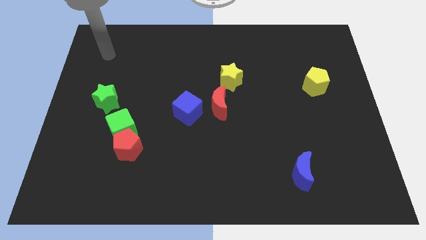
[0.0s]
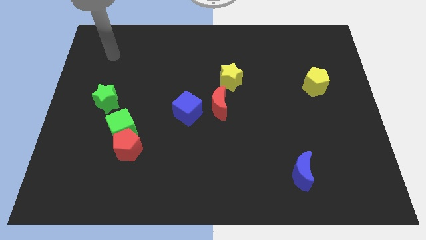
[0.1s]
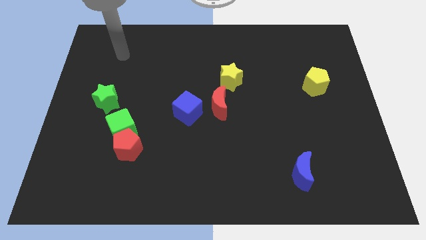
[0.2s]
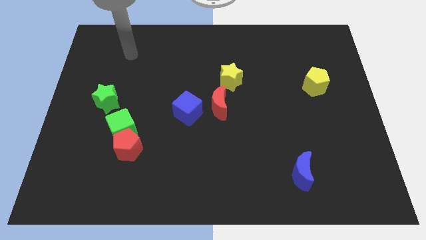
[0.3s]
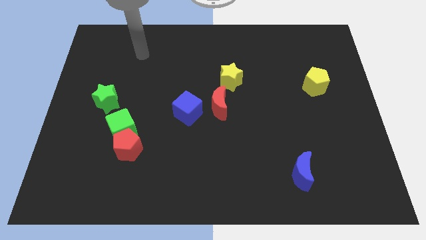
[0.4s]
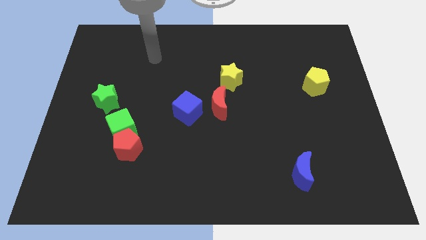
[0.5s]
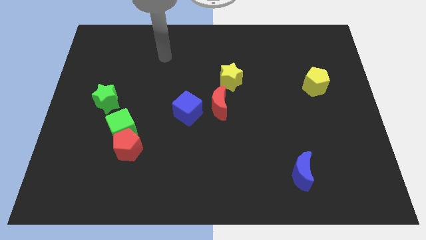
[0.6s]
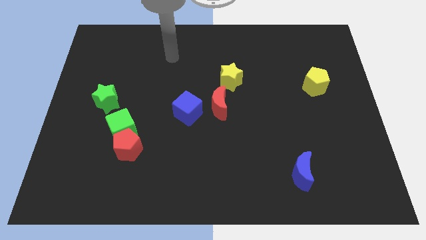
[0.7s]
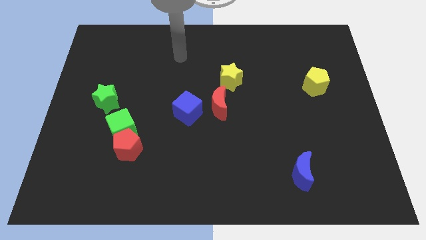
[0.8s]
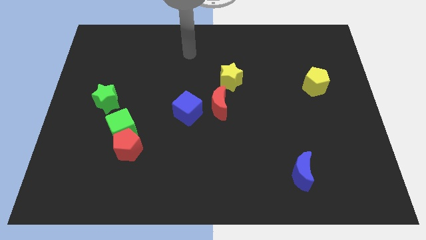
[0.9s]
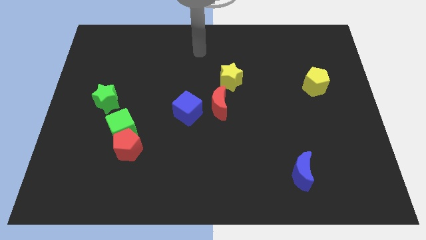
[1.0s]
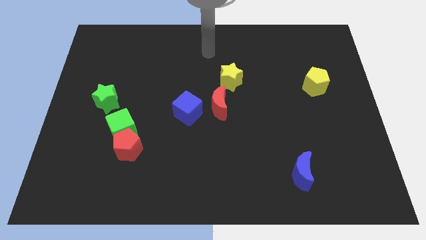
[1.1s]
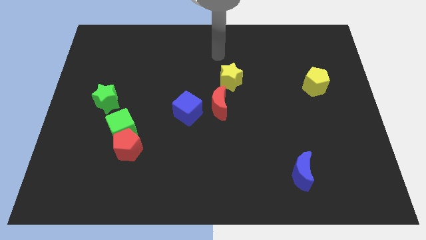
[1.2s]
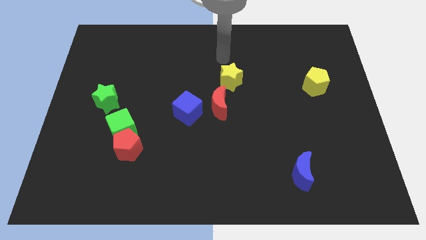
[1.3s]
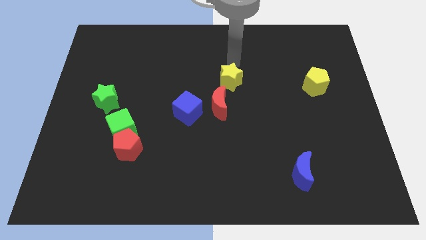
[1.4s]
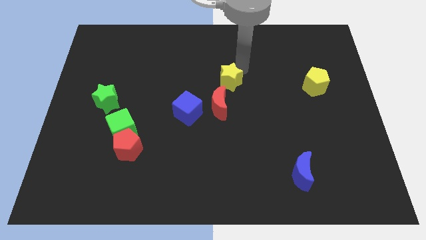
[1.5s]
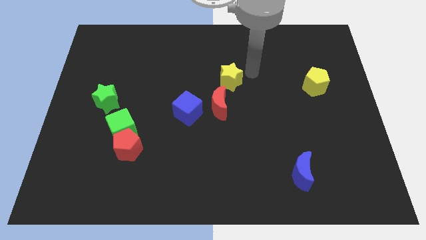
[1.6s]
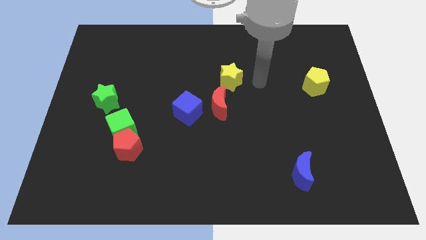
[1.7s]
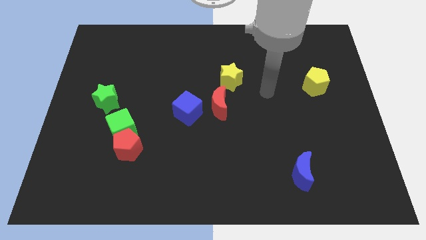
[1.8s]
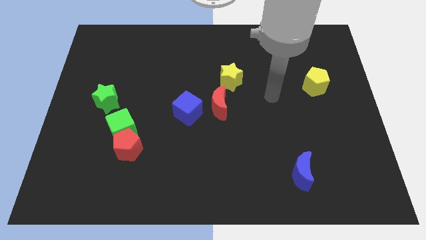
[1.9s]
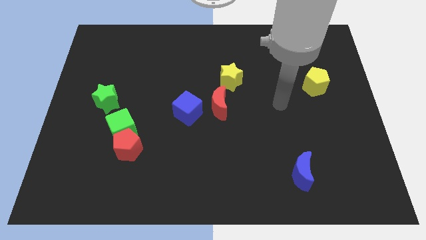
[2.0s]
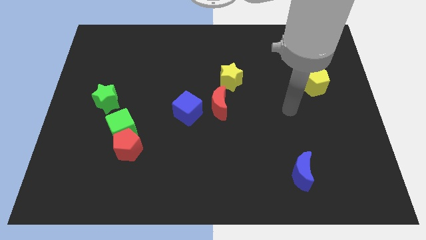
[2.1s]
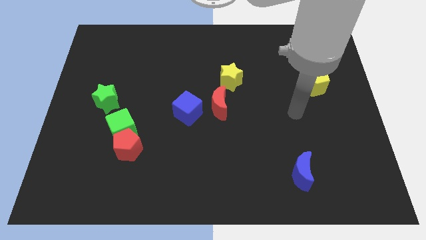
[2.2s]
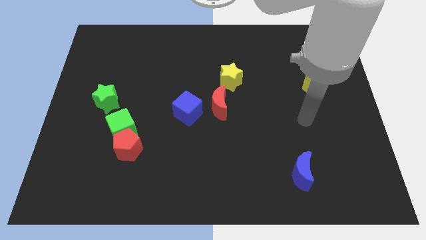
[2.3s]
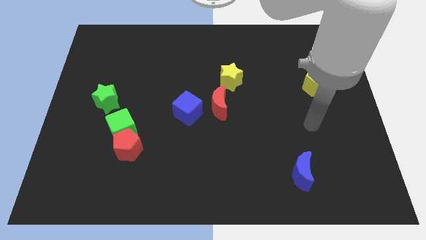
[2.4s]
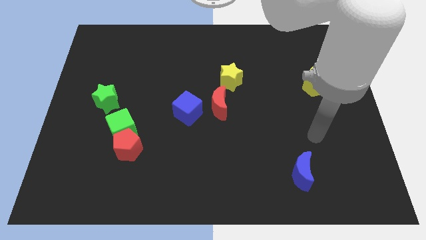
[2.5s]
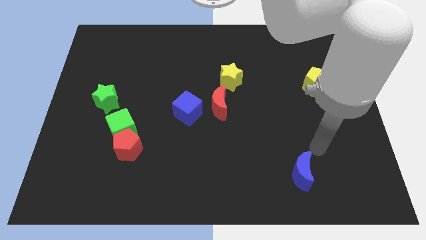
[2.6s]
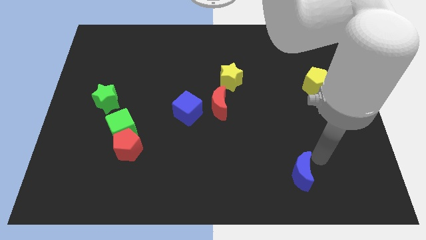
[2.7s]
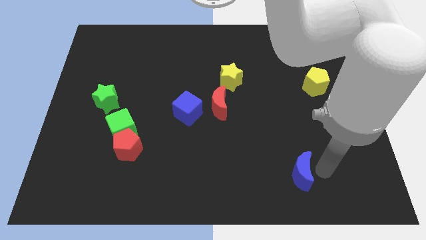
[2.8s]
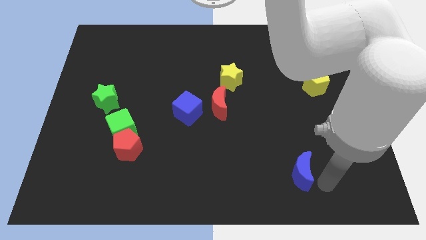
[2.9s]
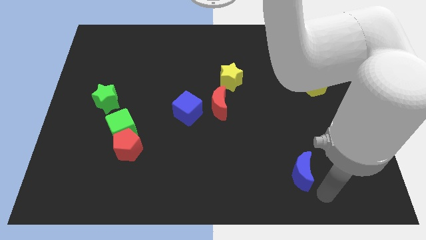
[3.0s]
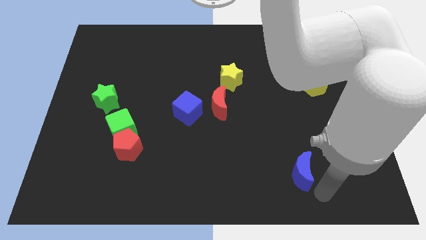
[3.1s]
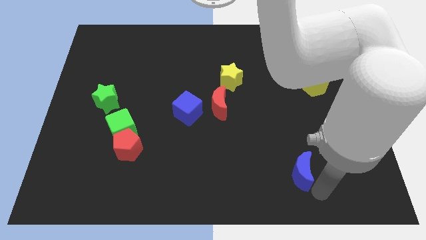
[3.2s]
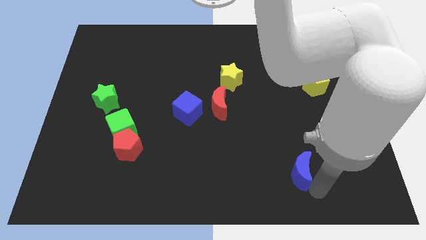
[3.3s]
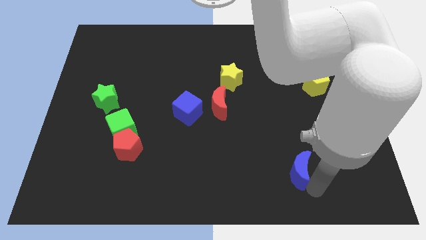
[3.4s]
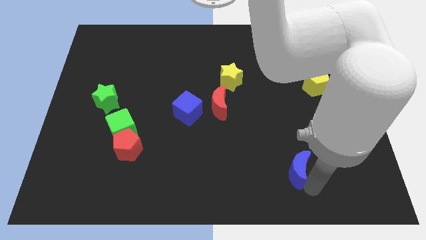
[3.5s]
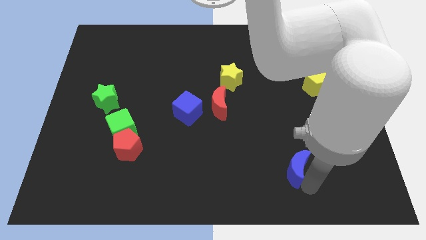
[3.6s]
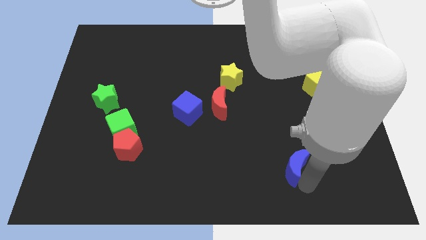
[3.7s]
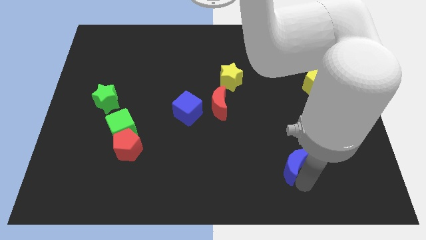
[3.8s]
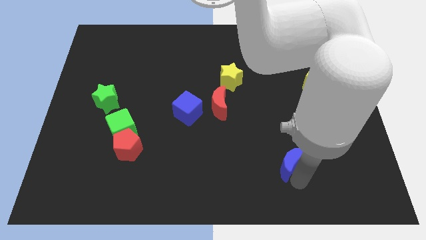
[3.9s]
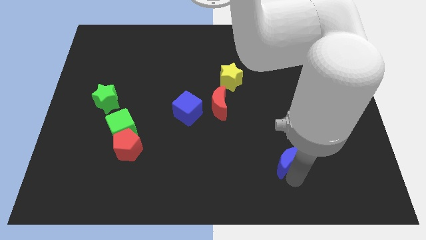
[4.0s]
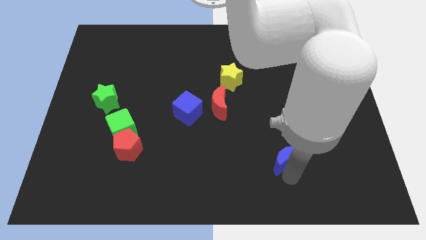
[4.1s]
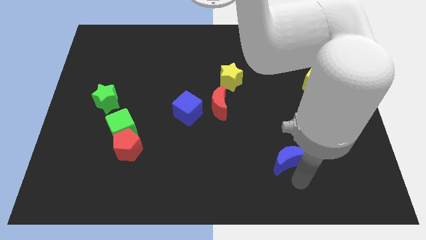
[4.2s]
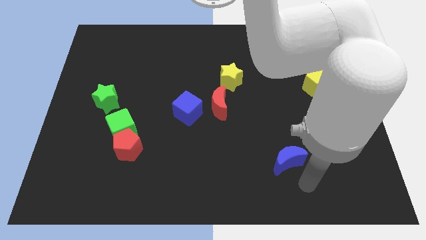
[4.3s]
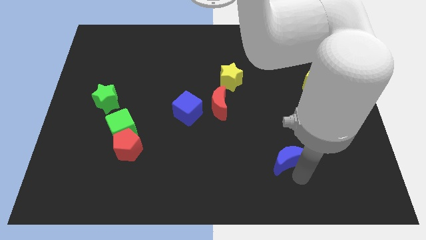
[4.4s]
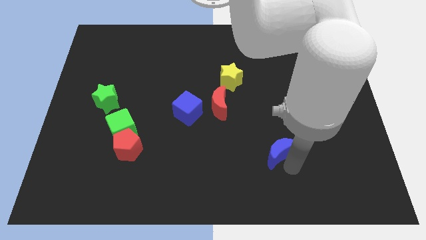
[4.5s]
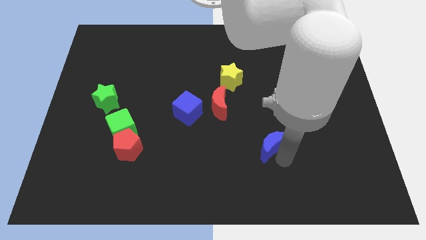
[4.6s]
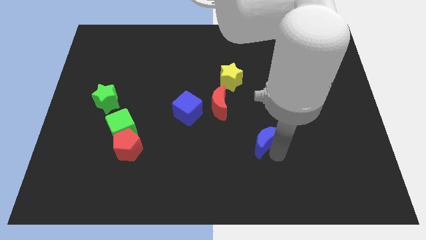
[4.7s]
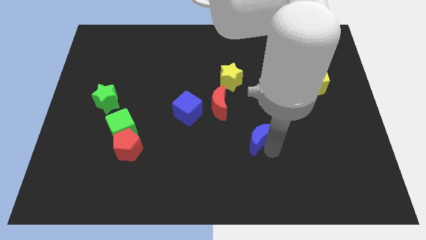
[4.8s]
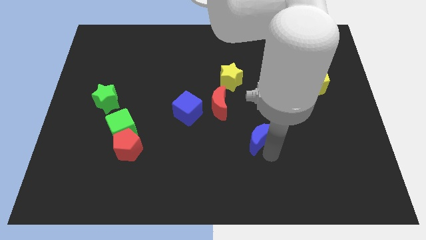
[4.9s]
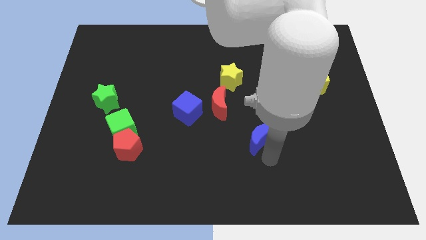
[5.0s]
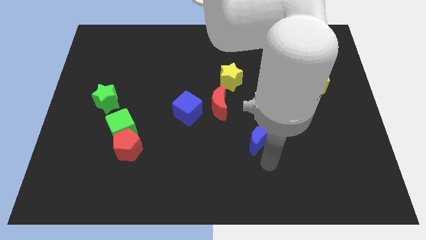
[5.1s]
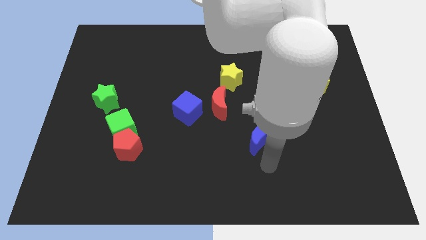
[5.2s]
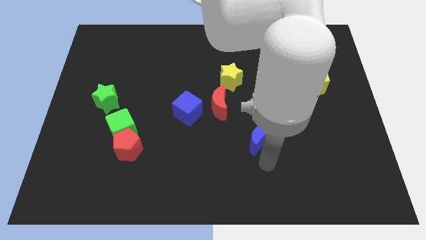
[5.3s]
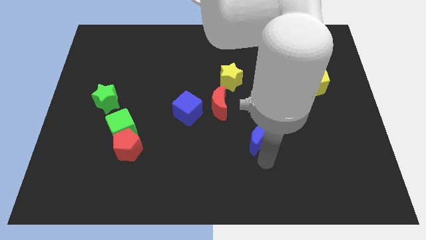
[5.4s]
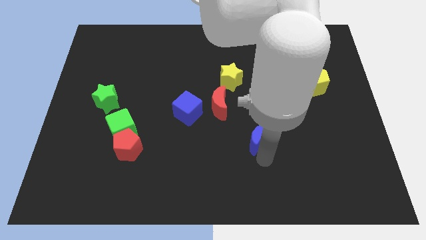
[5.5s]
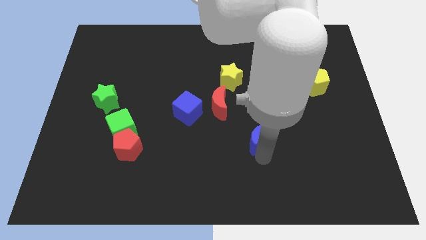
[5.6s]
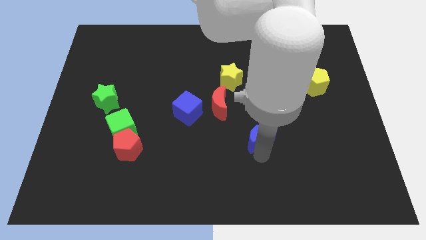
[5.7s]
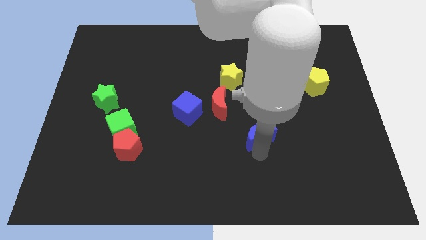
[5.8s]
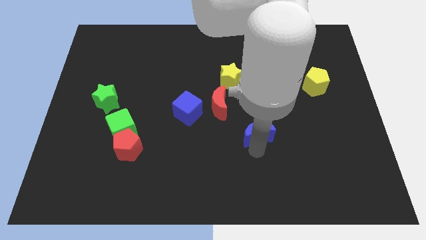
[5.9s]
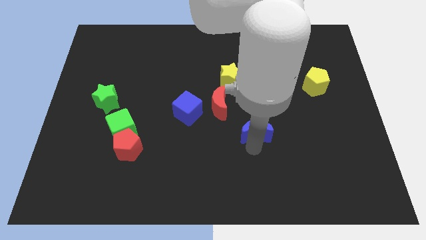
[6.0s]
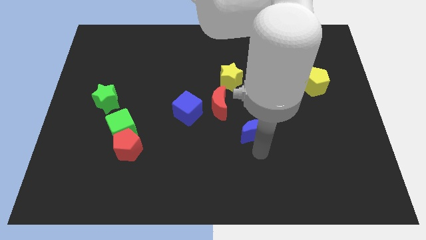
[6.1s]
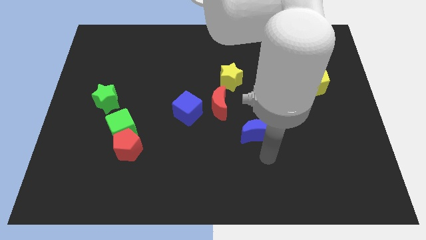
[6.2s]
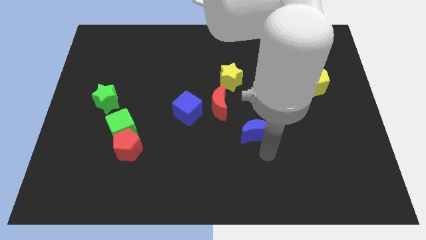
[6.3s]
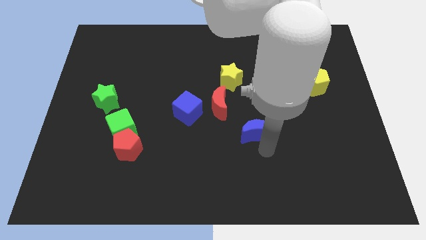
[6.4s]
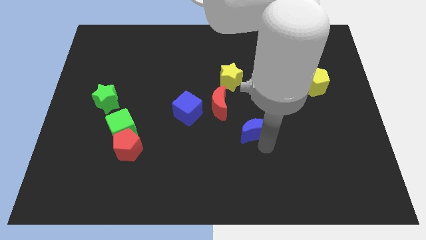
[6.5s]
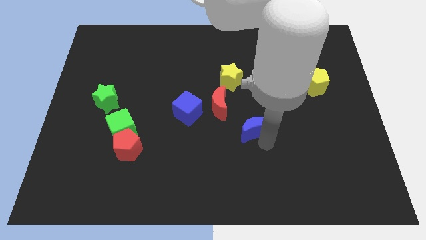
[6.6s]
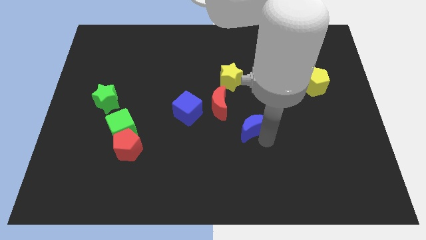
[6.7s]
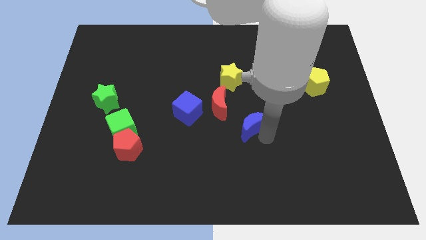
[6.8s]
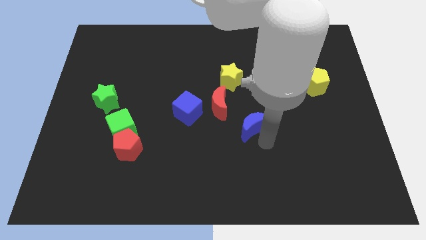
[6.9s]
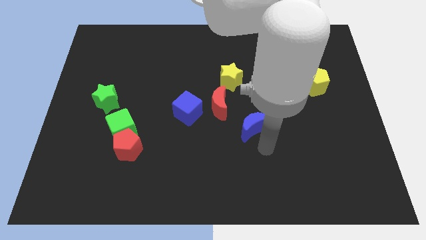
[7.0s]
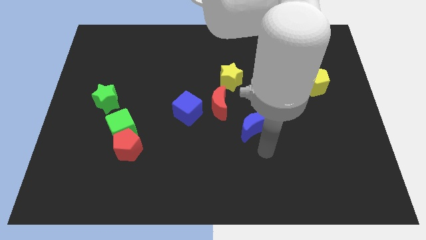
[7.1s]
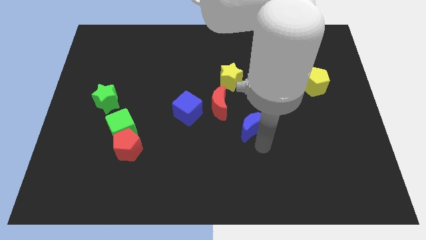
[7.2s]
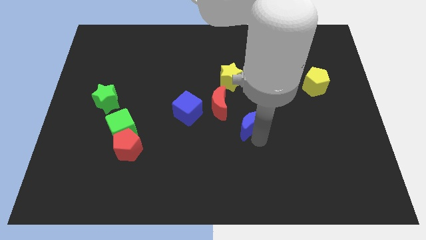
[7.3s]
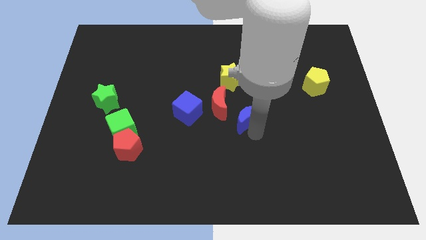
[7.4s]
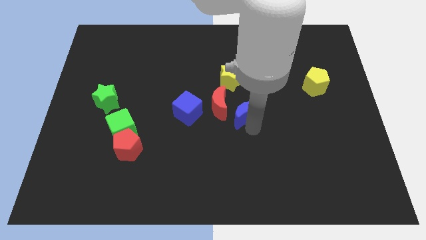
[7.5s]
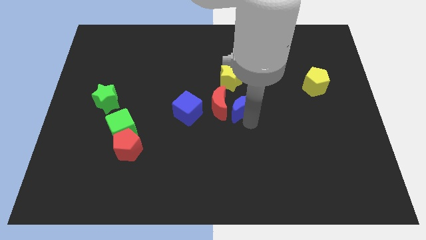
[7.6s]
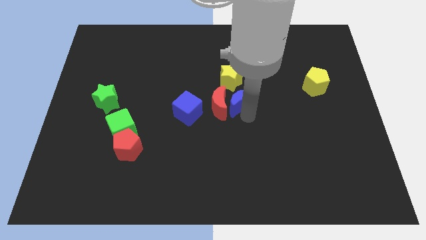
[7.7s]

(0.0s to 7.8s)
move the blue moon up and left diagonally

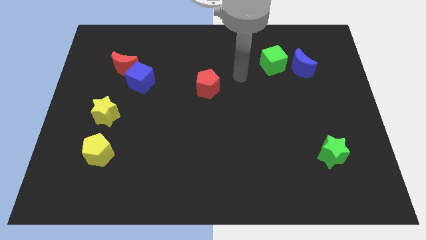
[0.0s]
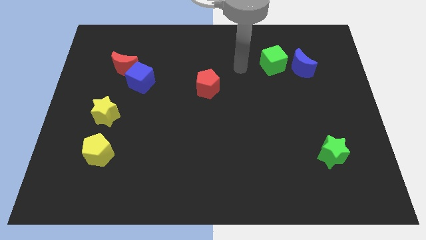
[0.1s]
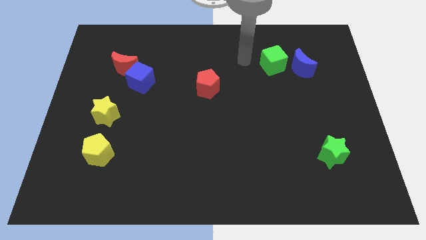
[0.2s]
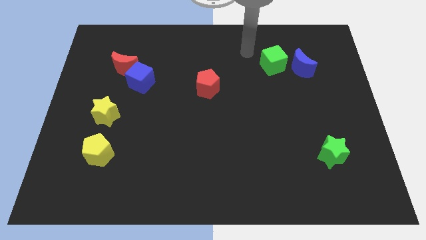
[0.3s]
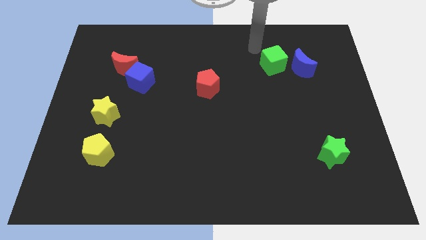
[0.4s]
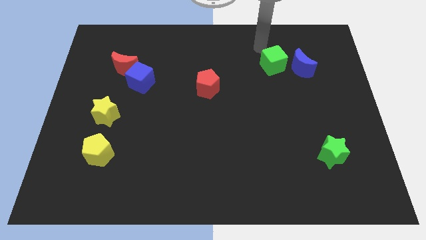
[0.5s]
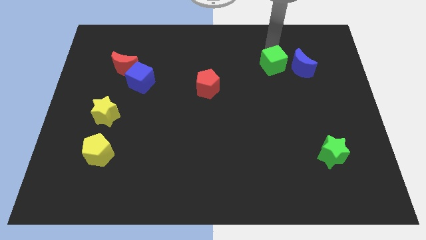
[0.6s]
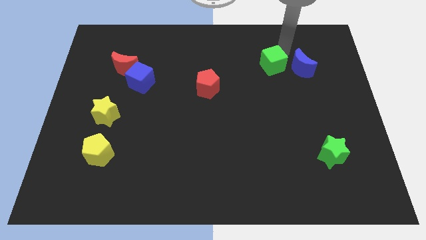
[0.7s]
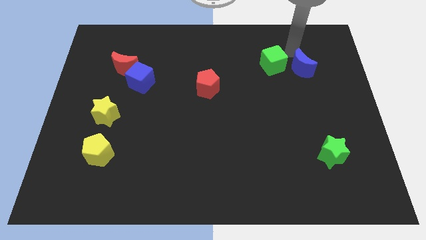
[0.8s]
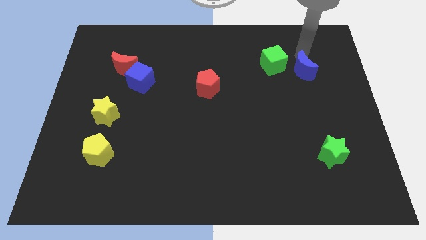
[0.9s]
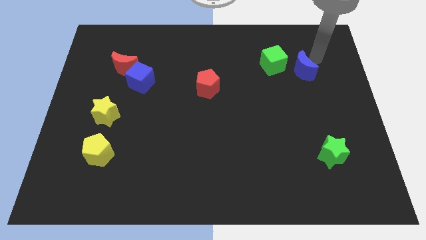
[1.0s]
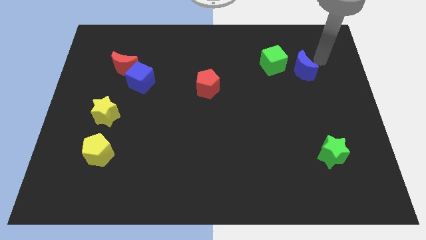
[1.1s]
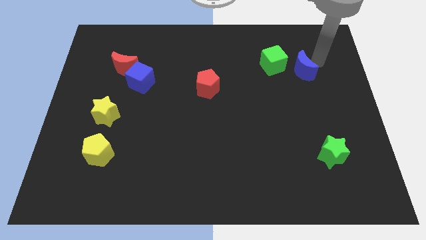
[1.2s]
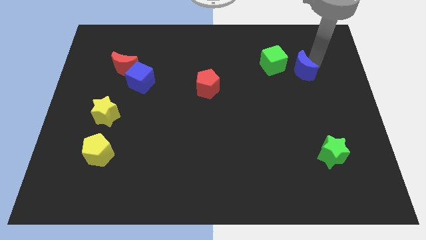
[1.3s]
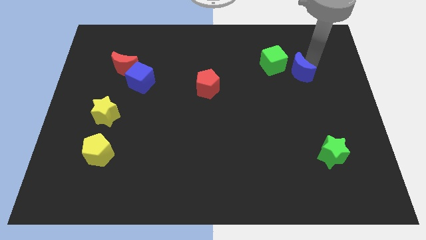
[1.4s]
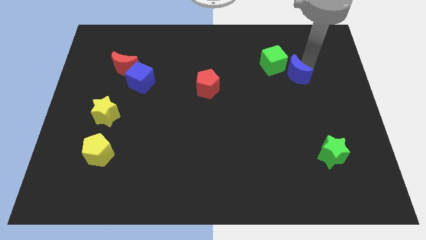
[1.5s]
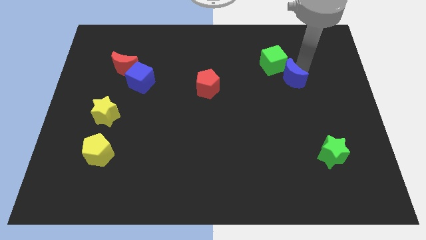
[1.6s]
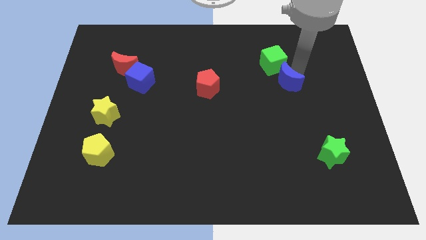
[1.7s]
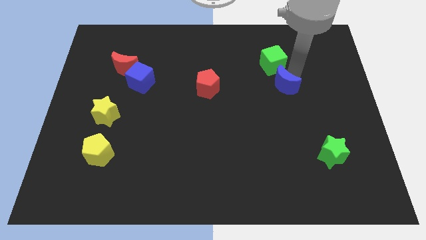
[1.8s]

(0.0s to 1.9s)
slide the blue moon a little bit downwards and to the left diagonally
